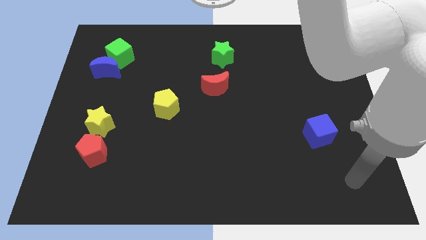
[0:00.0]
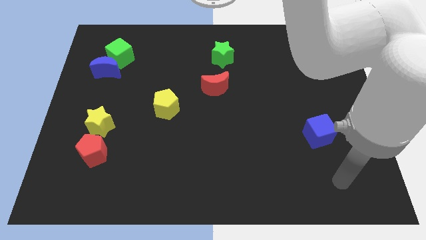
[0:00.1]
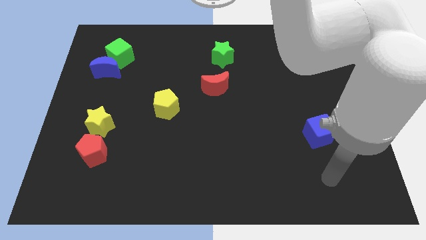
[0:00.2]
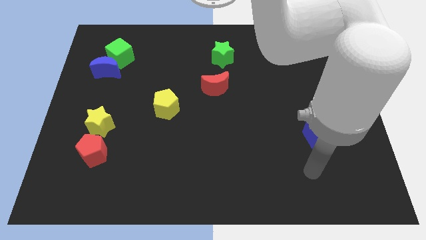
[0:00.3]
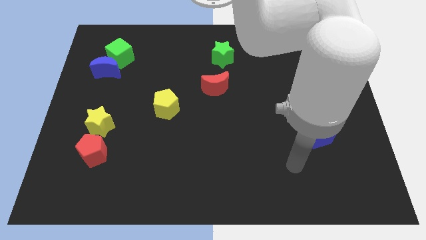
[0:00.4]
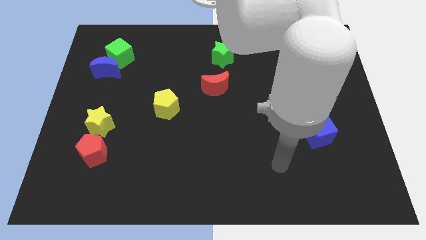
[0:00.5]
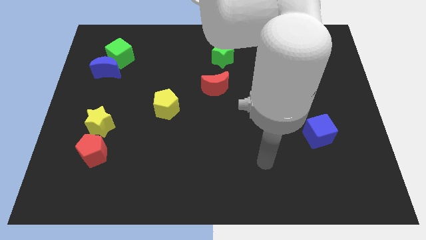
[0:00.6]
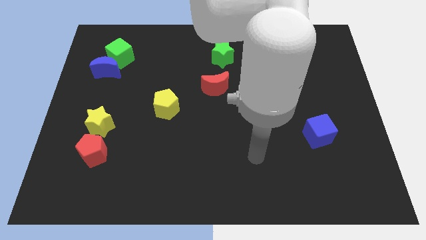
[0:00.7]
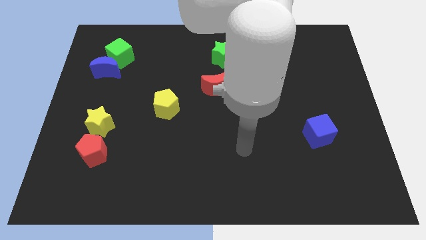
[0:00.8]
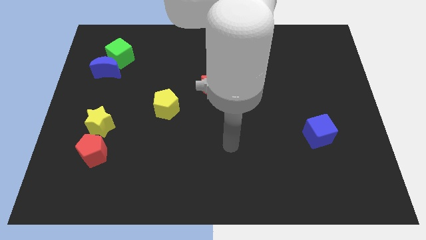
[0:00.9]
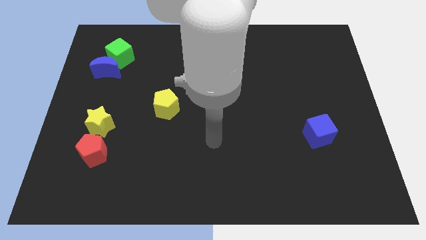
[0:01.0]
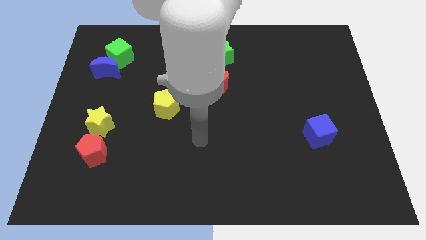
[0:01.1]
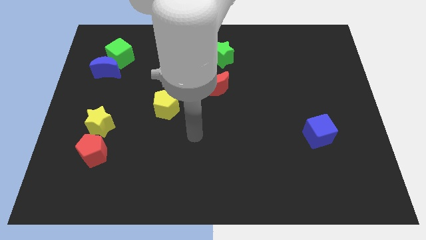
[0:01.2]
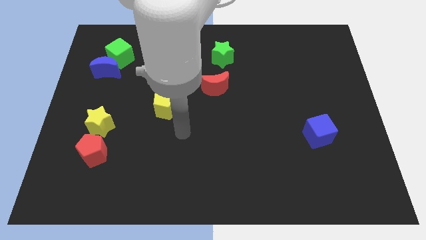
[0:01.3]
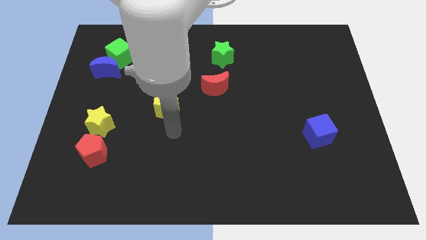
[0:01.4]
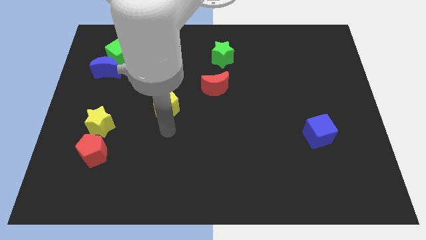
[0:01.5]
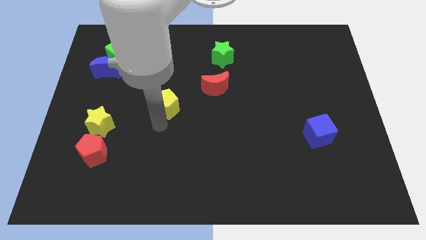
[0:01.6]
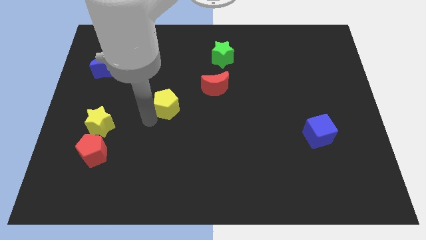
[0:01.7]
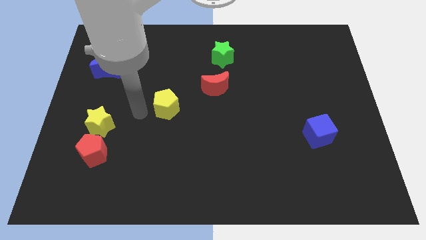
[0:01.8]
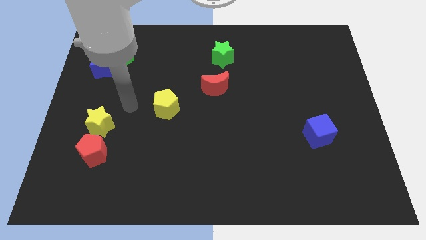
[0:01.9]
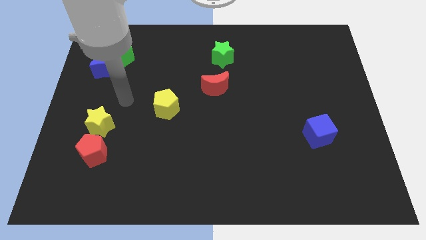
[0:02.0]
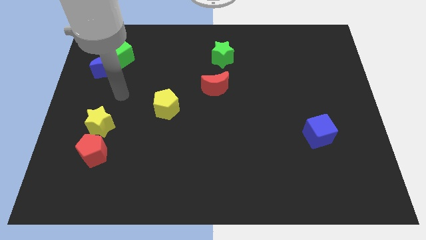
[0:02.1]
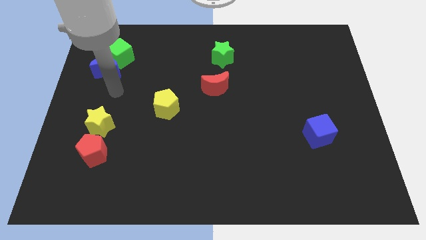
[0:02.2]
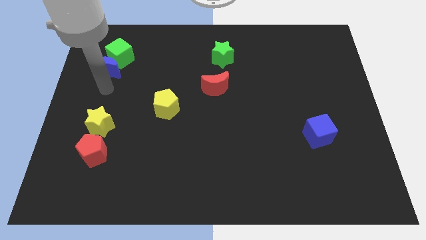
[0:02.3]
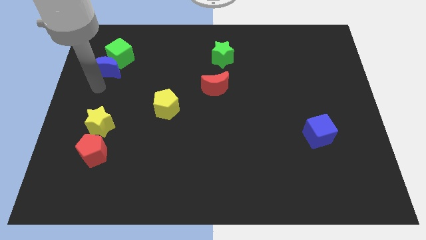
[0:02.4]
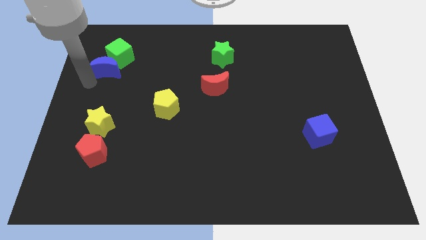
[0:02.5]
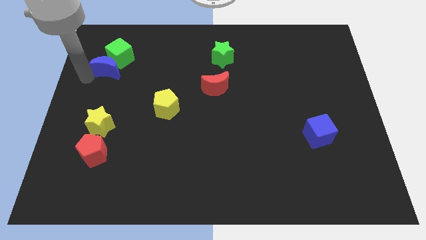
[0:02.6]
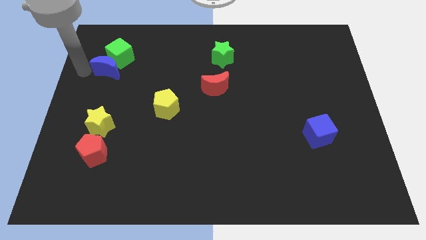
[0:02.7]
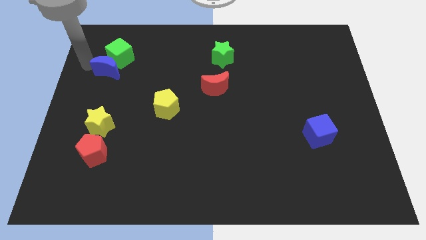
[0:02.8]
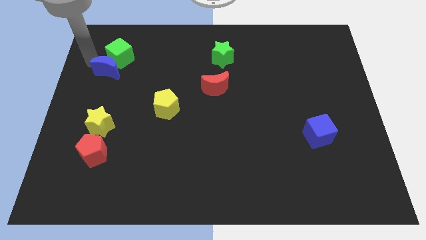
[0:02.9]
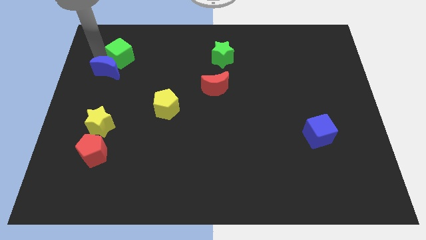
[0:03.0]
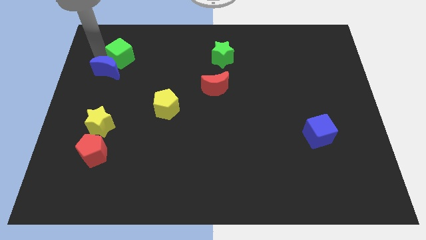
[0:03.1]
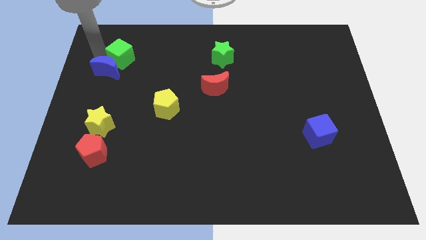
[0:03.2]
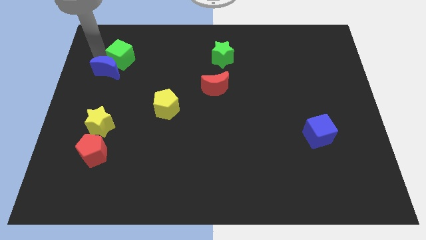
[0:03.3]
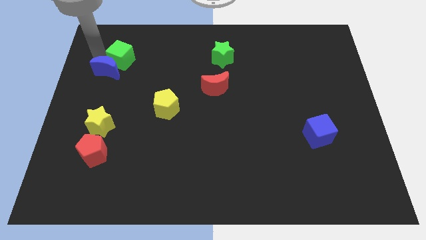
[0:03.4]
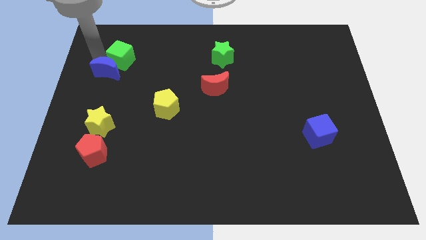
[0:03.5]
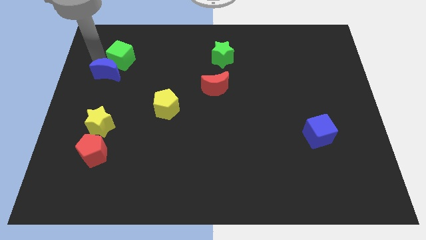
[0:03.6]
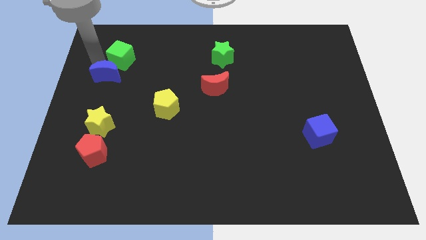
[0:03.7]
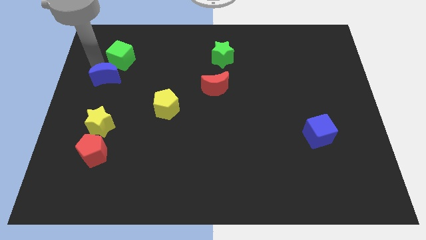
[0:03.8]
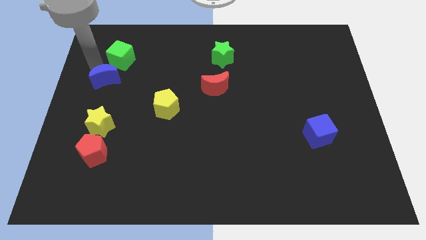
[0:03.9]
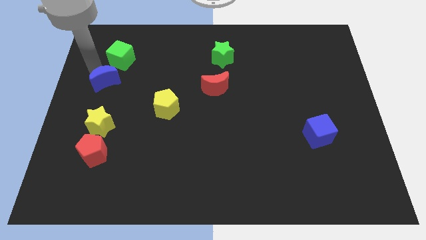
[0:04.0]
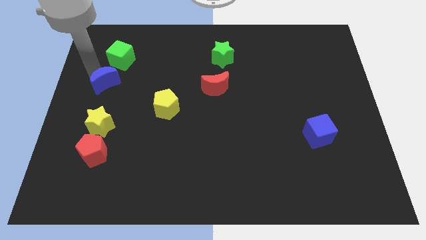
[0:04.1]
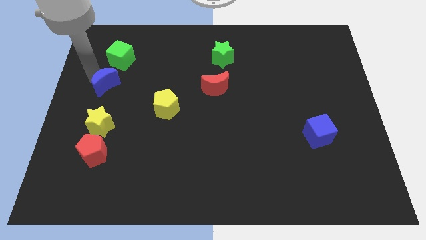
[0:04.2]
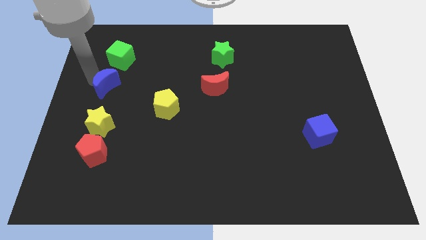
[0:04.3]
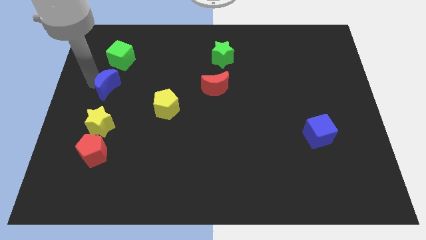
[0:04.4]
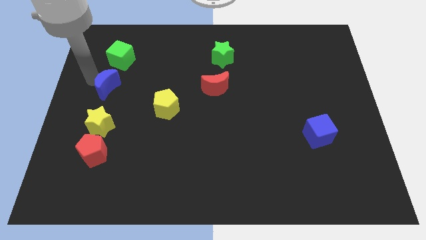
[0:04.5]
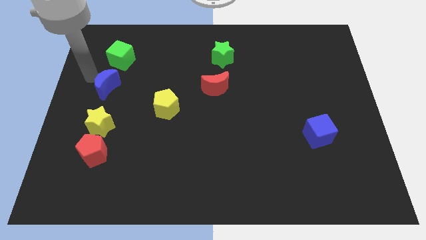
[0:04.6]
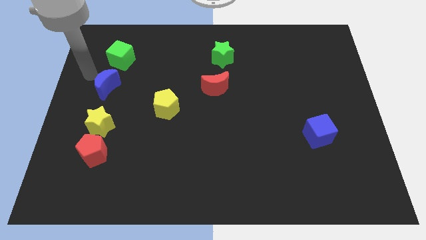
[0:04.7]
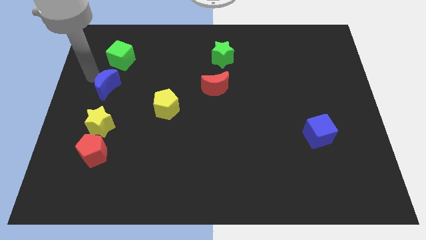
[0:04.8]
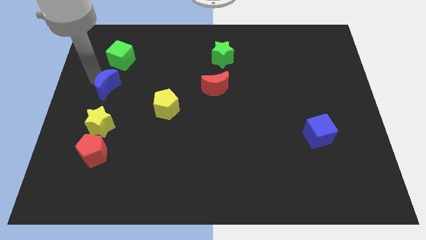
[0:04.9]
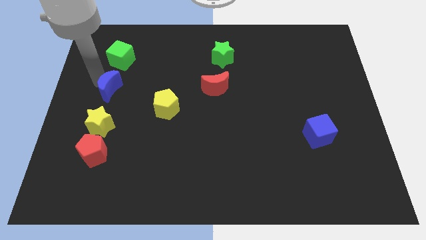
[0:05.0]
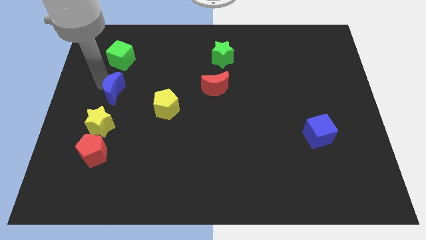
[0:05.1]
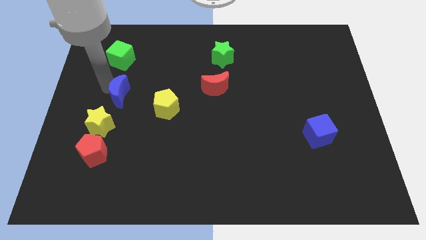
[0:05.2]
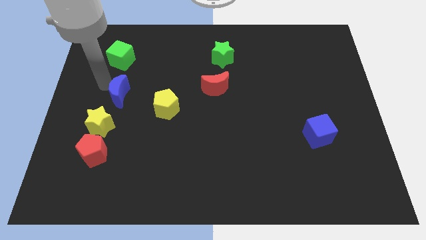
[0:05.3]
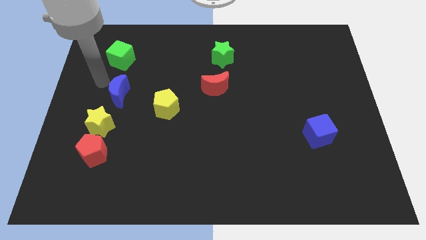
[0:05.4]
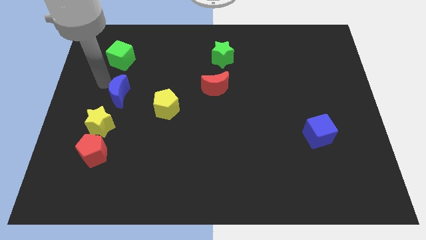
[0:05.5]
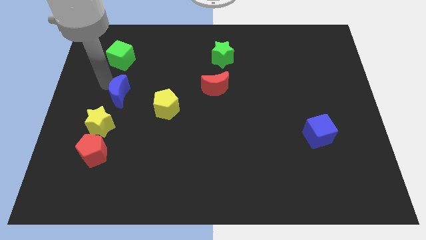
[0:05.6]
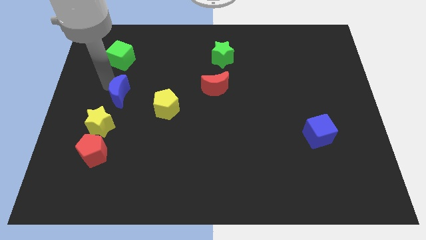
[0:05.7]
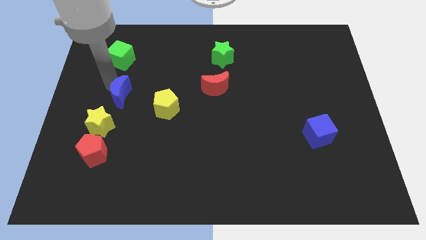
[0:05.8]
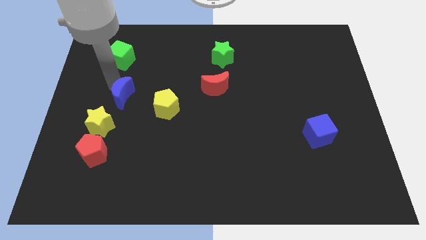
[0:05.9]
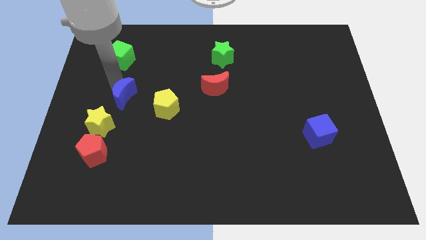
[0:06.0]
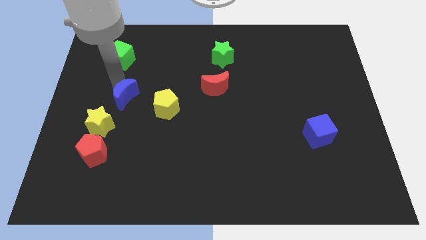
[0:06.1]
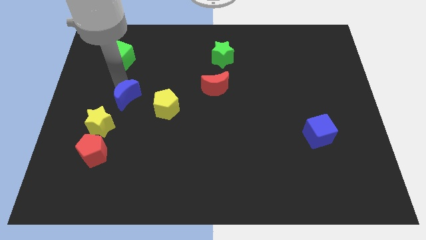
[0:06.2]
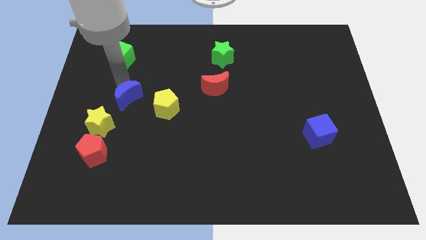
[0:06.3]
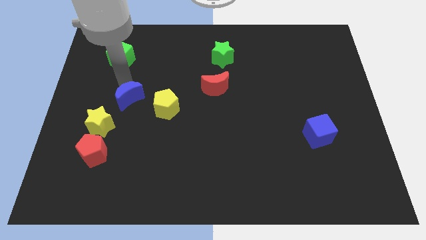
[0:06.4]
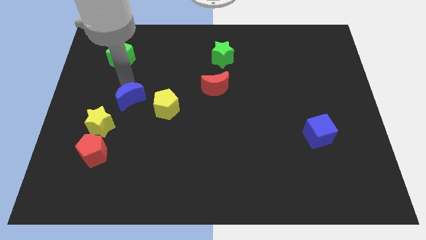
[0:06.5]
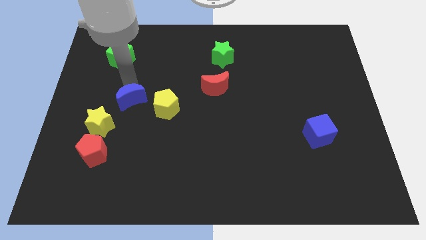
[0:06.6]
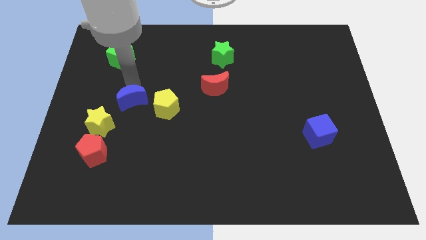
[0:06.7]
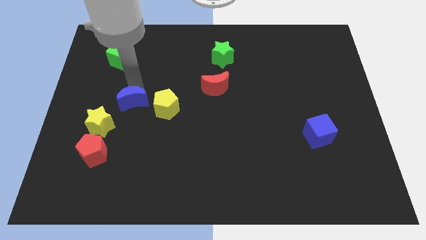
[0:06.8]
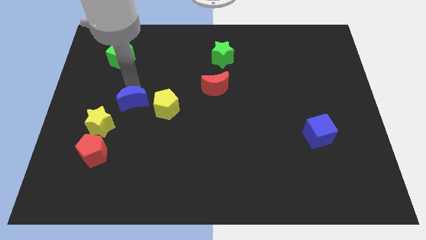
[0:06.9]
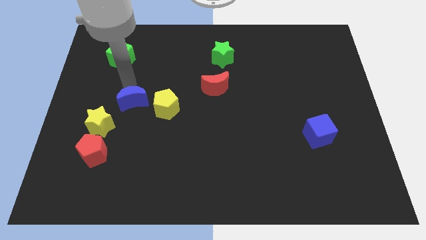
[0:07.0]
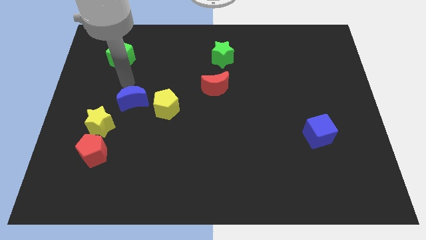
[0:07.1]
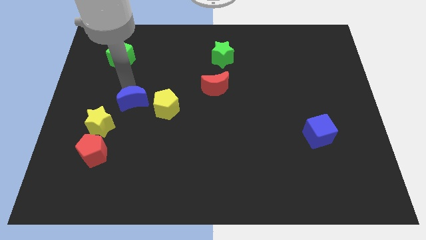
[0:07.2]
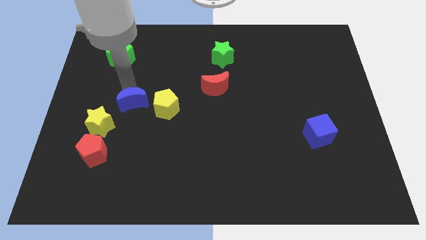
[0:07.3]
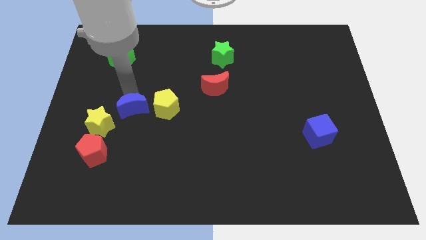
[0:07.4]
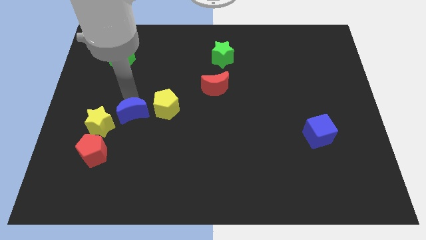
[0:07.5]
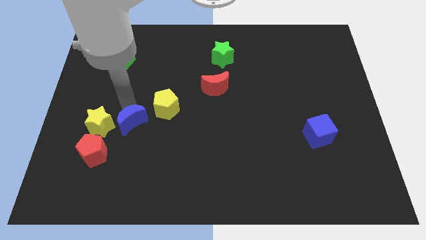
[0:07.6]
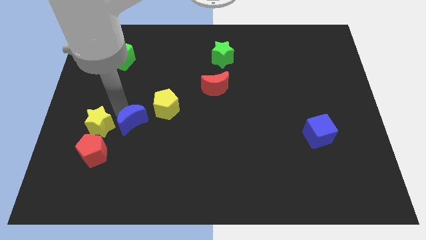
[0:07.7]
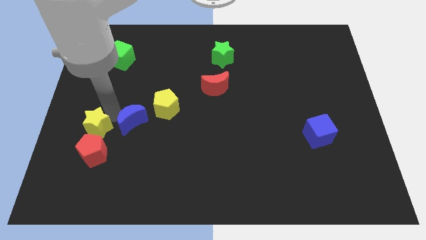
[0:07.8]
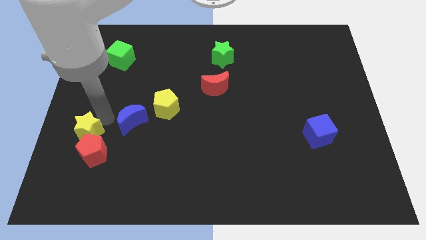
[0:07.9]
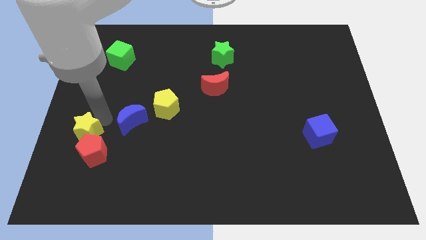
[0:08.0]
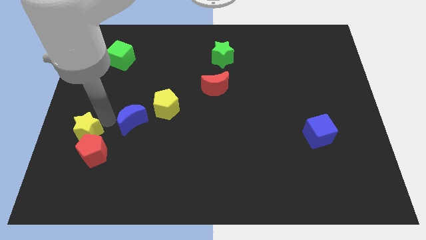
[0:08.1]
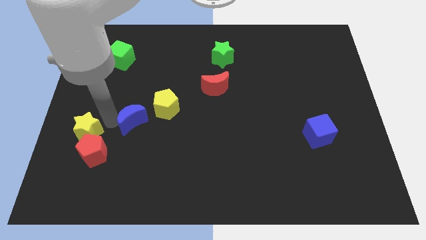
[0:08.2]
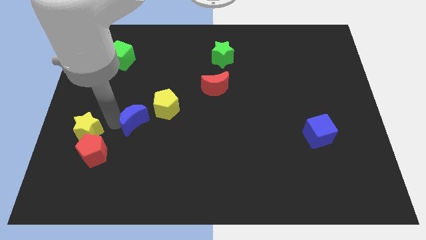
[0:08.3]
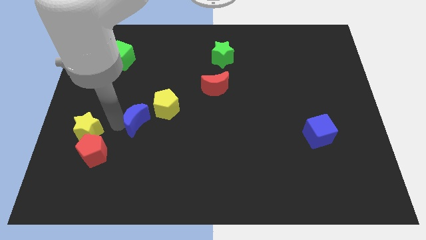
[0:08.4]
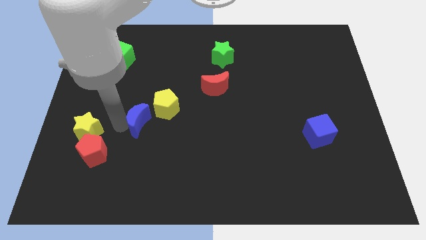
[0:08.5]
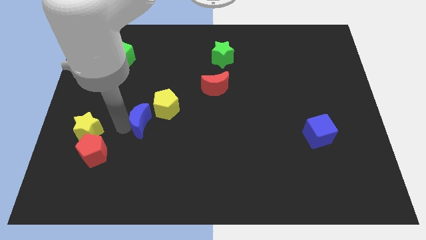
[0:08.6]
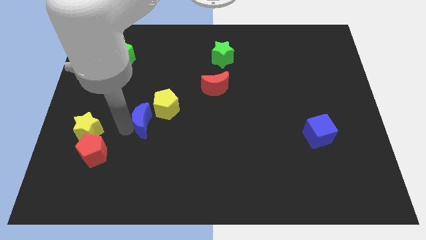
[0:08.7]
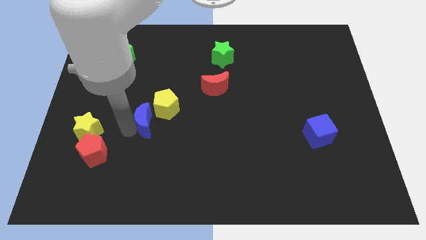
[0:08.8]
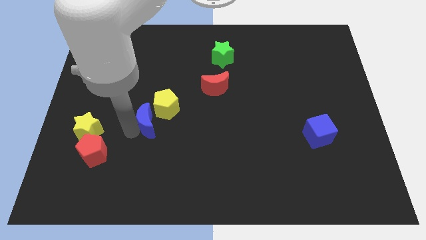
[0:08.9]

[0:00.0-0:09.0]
slide the blue moon down and to the right
